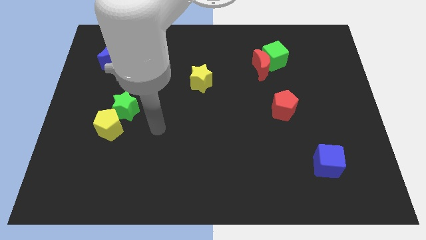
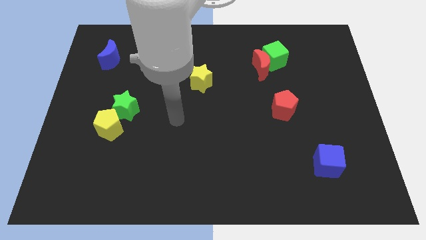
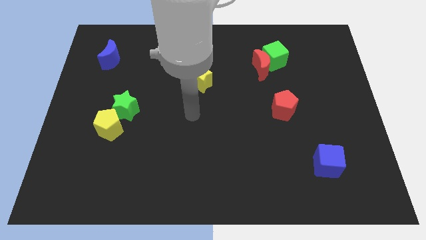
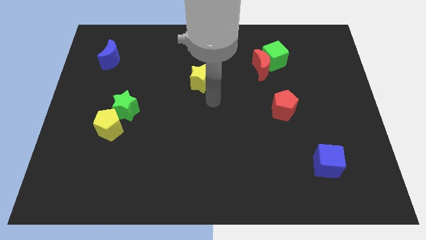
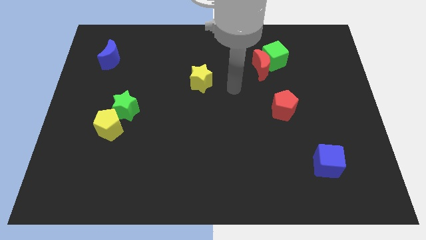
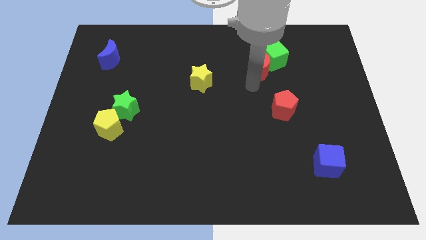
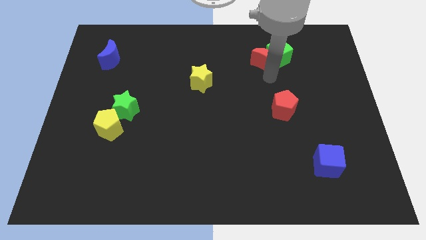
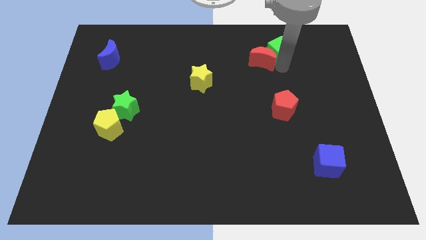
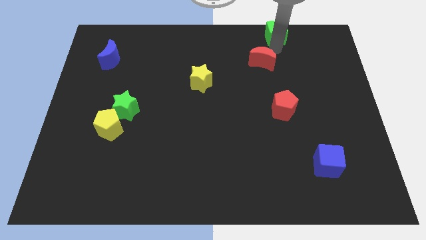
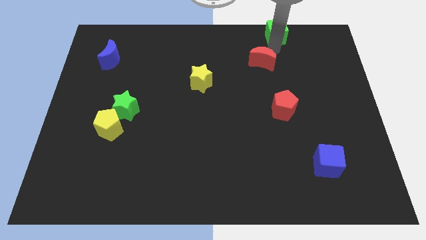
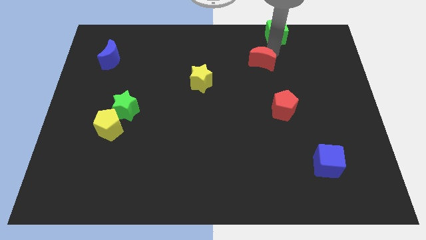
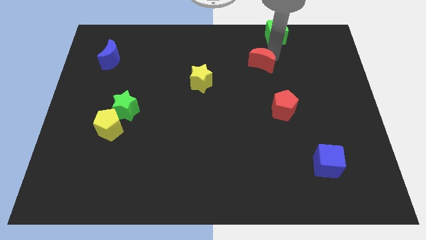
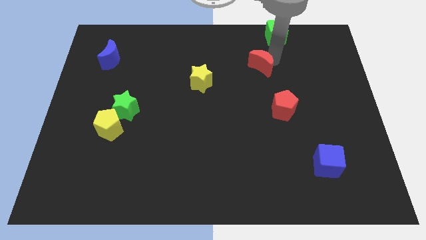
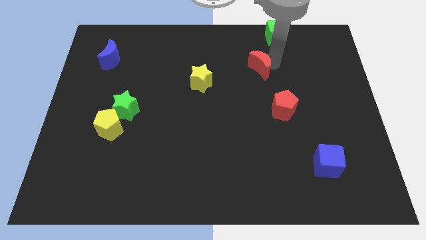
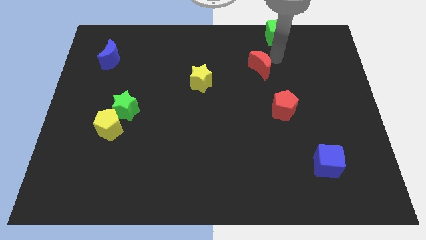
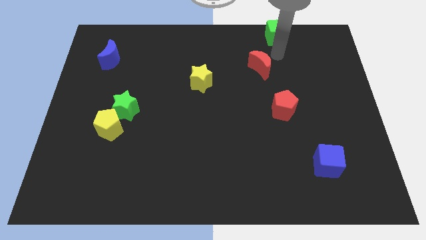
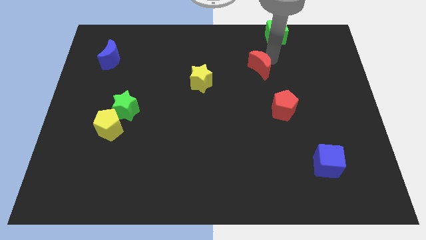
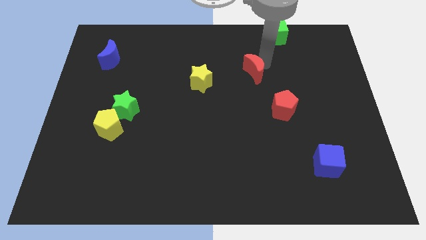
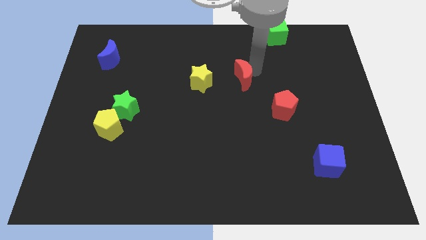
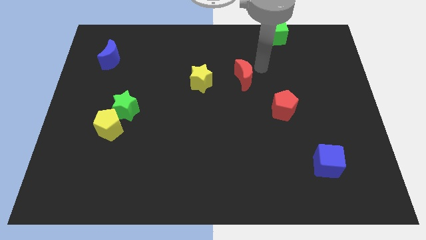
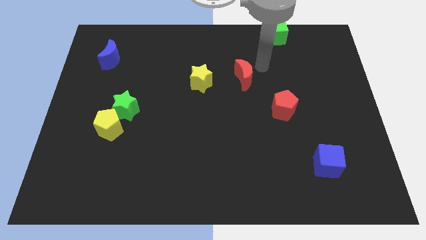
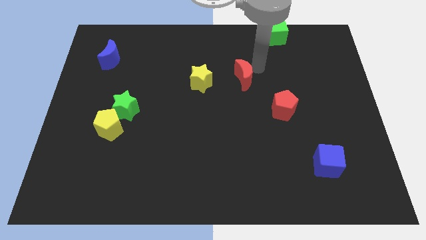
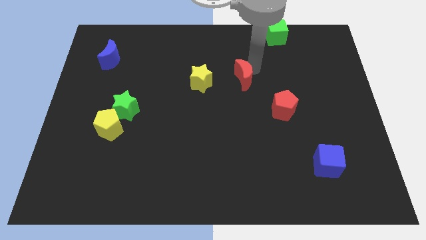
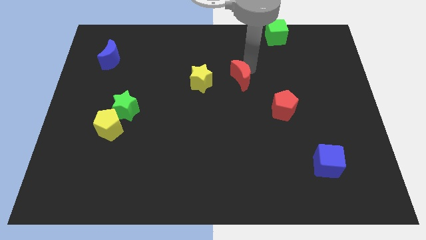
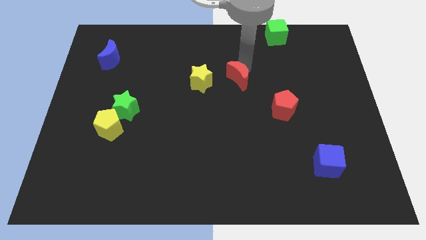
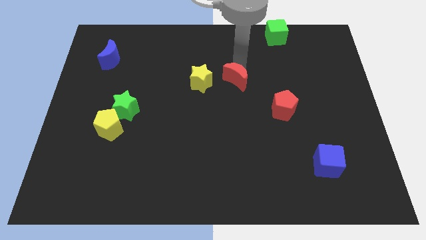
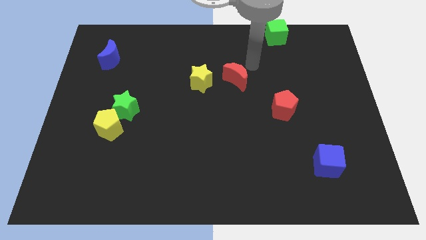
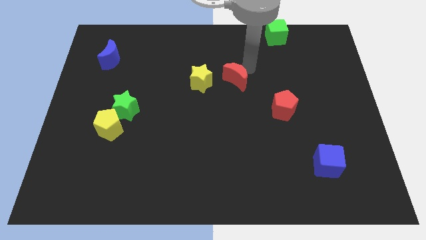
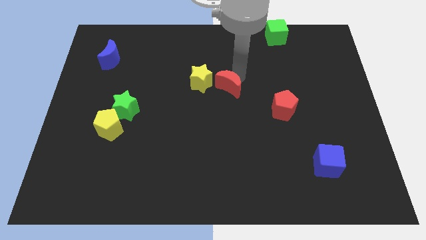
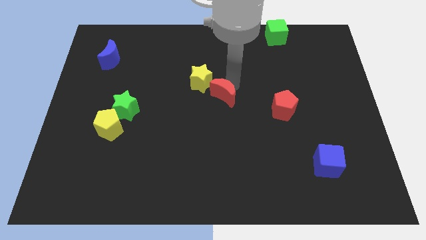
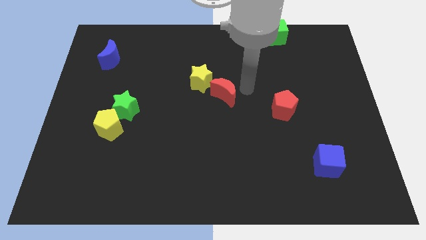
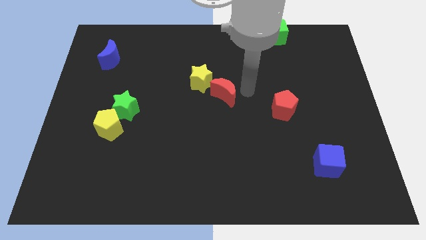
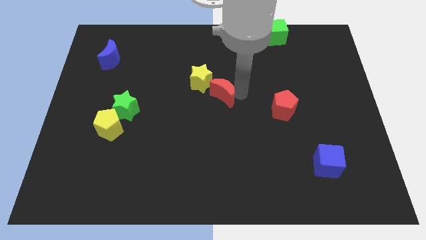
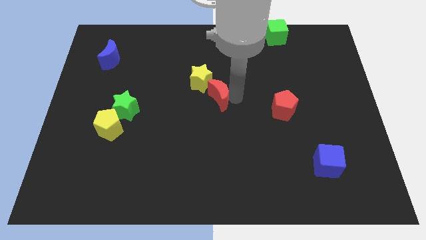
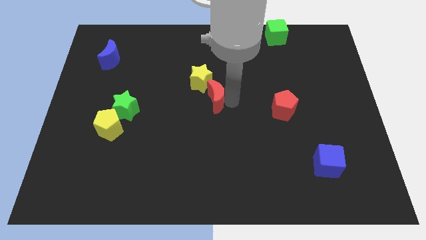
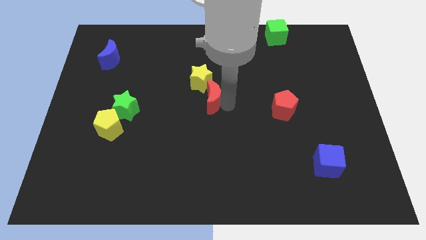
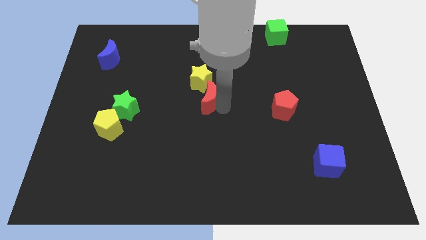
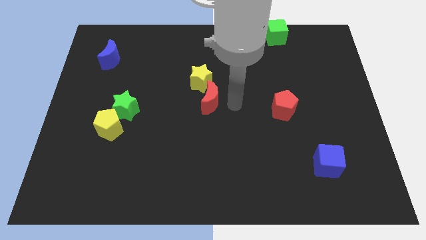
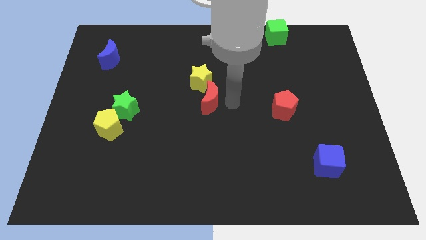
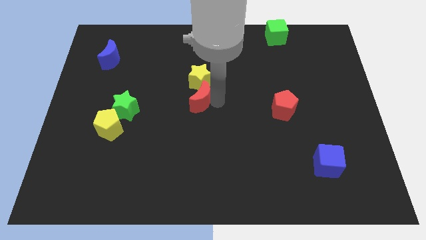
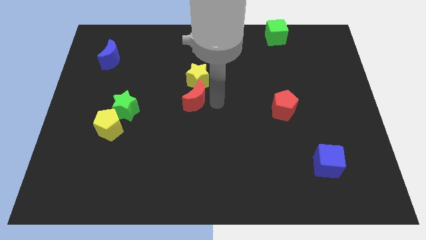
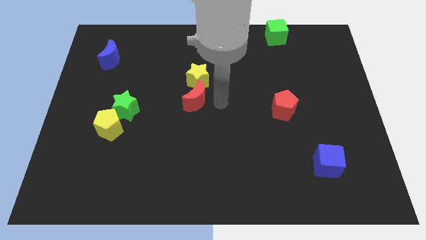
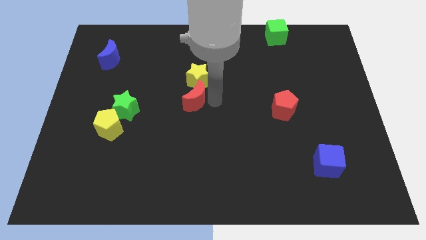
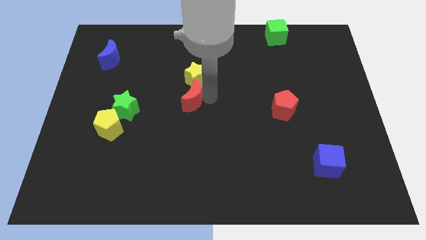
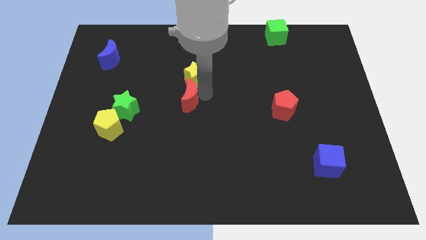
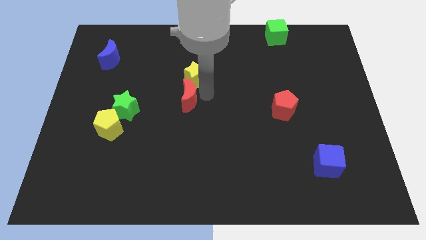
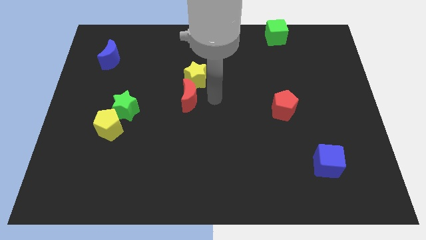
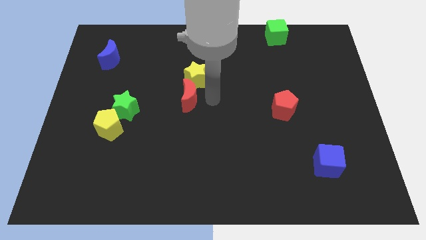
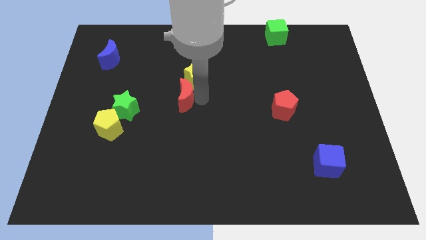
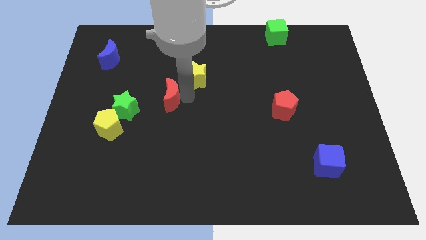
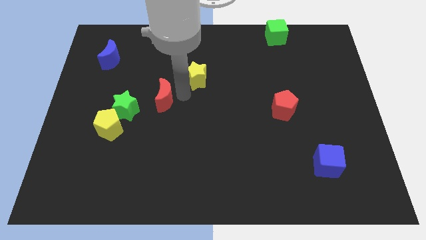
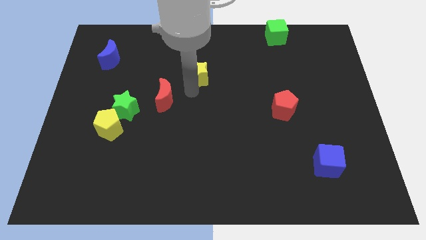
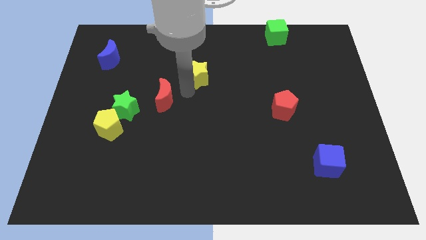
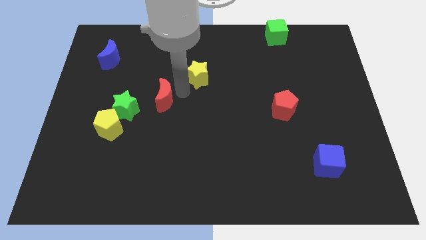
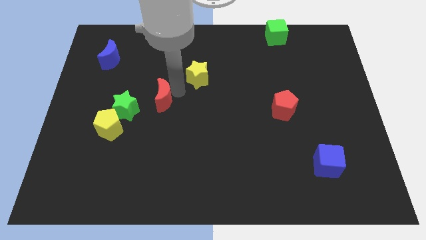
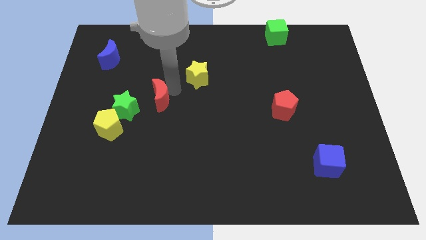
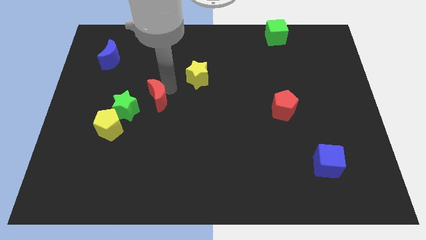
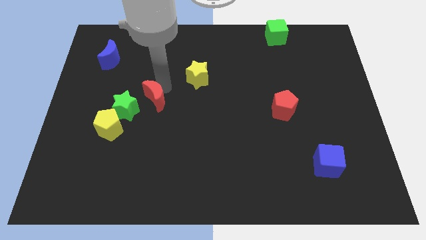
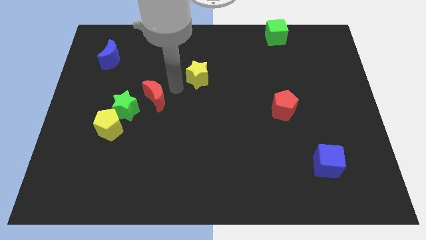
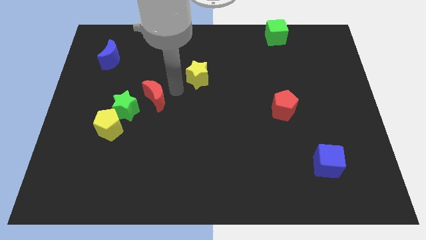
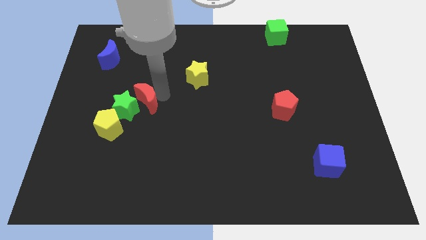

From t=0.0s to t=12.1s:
slide the red moon close to the green star

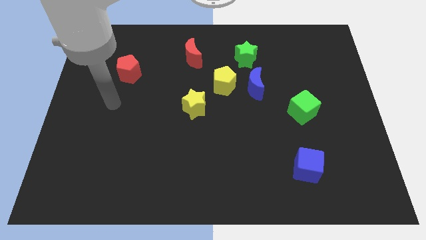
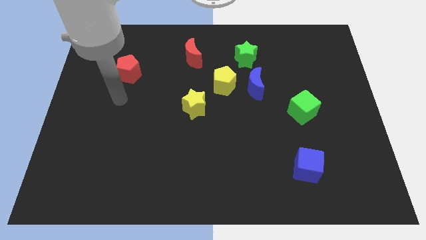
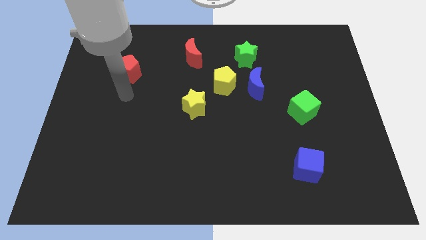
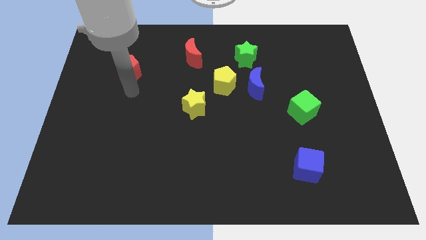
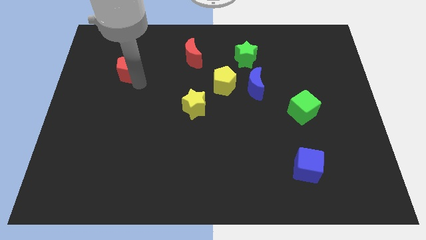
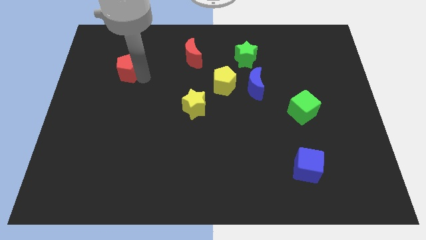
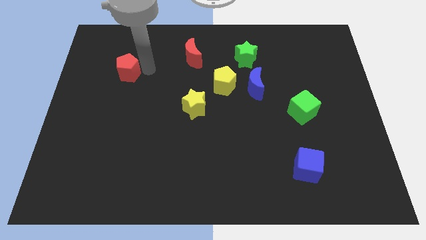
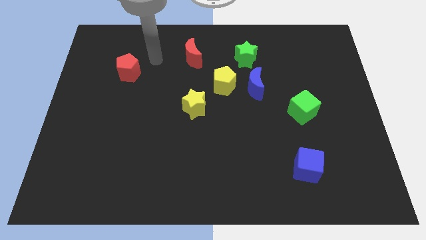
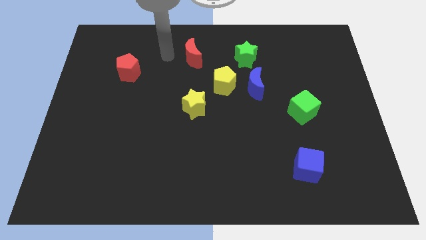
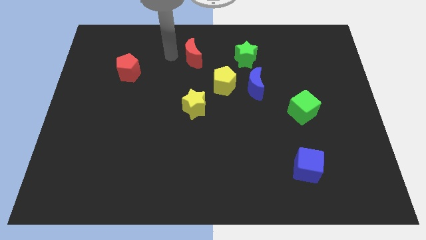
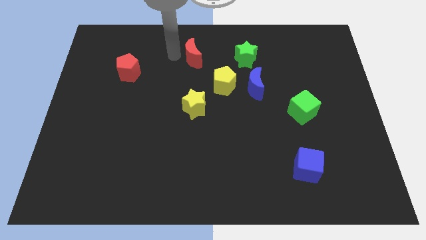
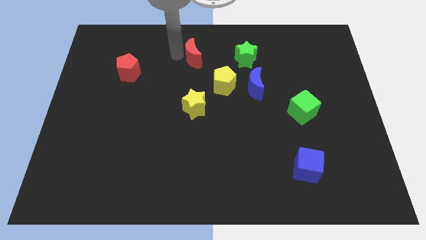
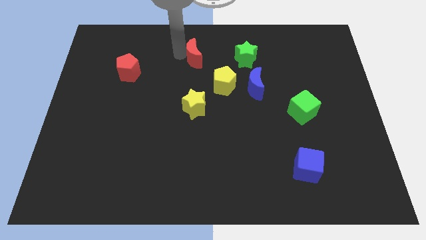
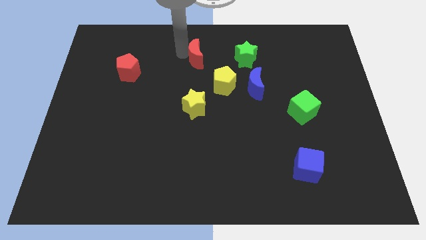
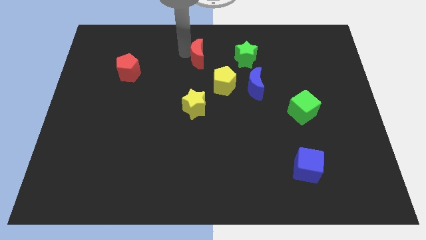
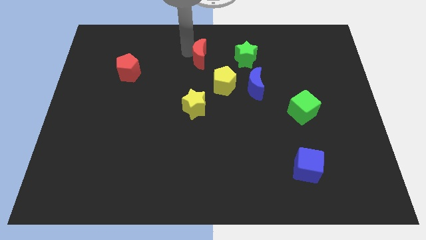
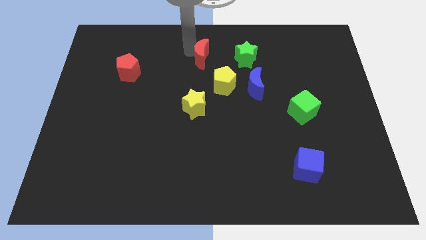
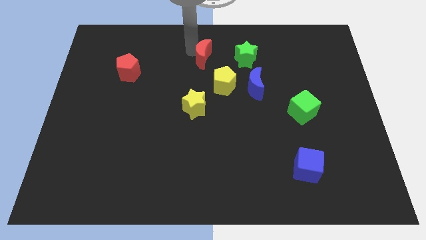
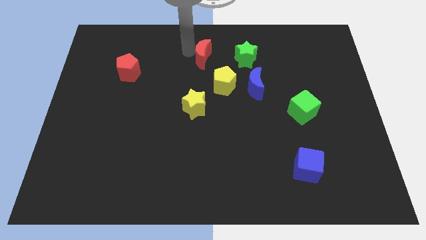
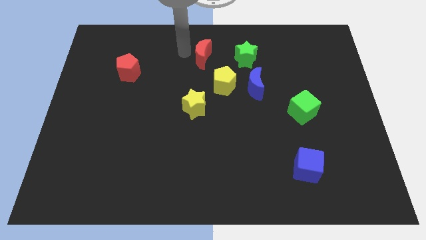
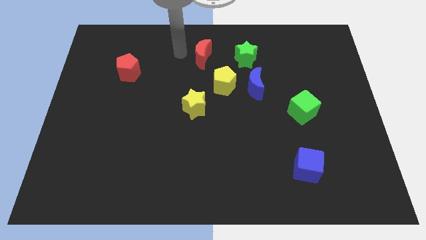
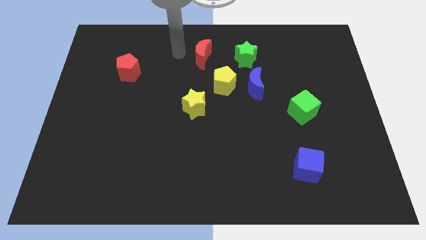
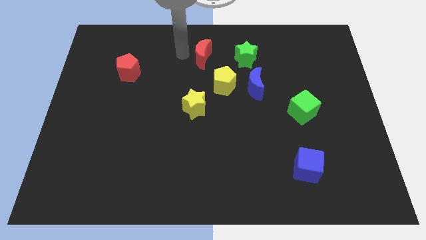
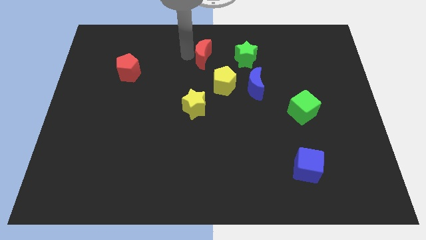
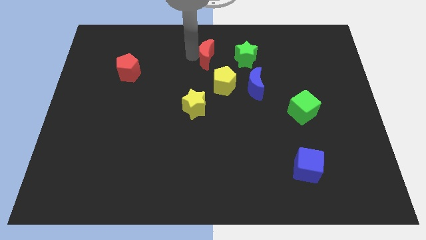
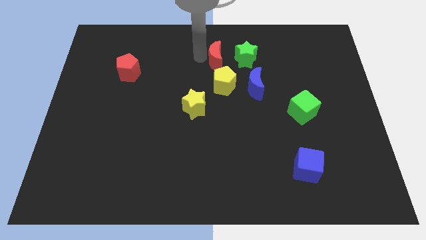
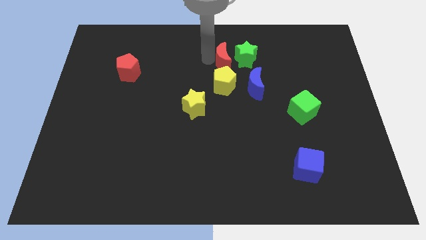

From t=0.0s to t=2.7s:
slide the red moon next to the green star
